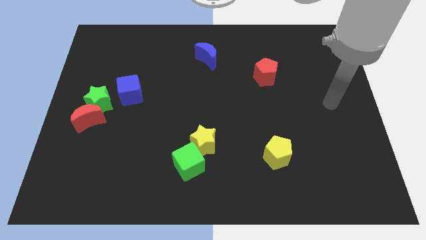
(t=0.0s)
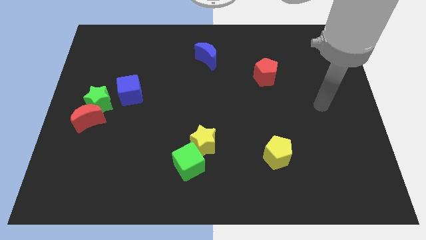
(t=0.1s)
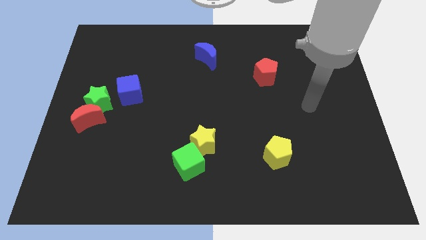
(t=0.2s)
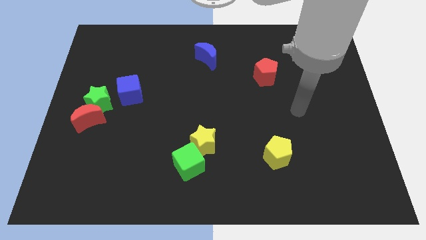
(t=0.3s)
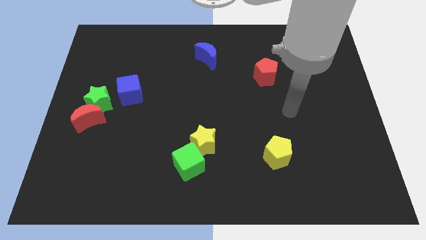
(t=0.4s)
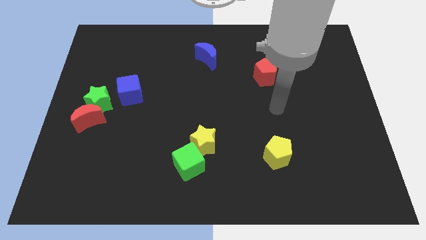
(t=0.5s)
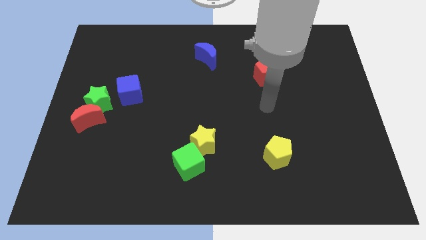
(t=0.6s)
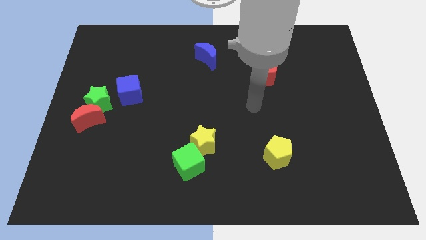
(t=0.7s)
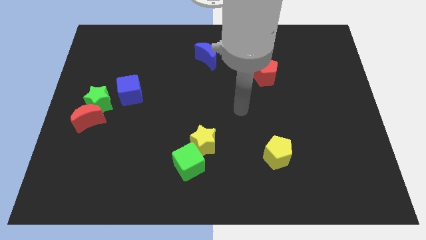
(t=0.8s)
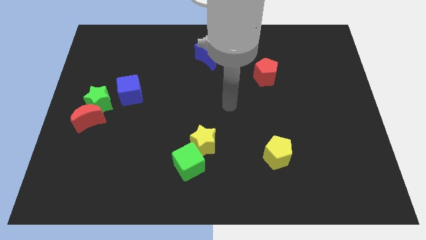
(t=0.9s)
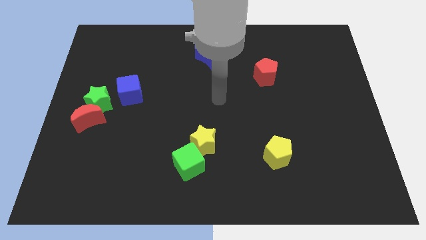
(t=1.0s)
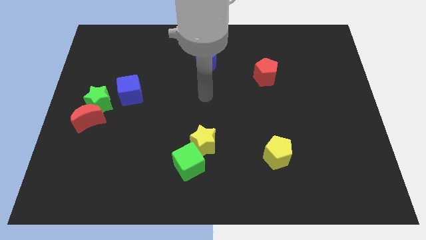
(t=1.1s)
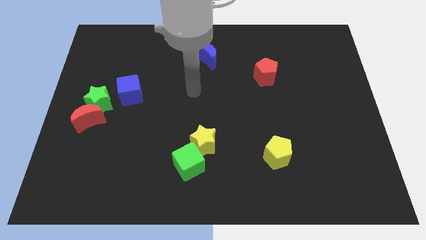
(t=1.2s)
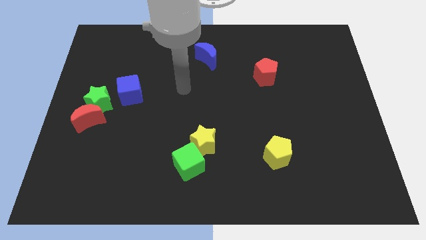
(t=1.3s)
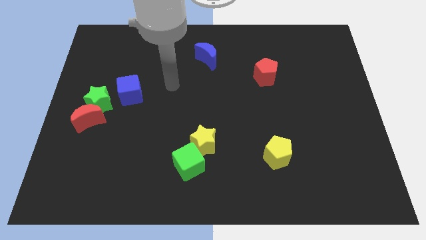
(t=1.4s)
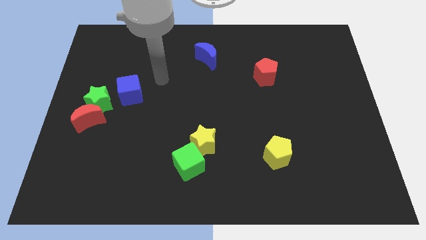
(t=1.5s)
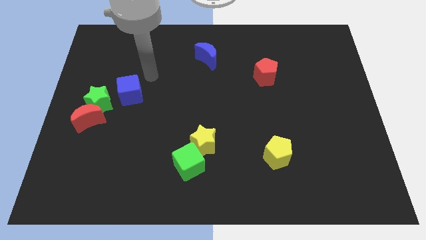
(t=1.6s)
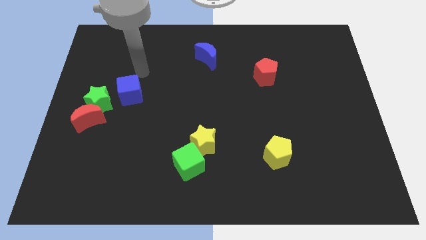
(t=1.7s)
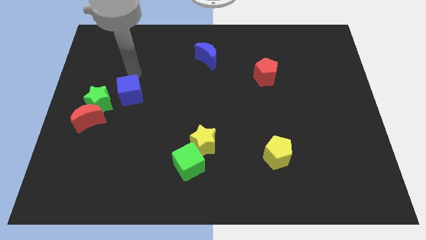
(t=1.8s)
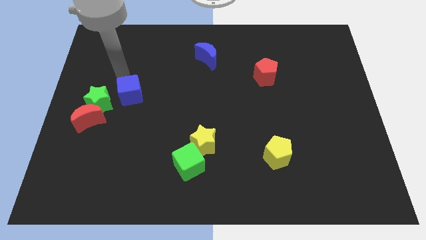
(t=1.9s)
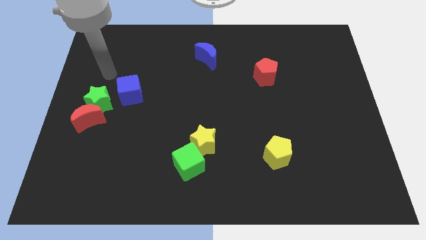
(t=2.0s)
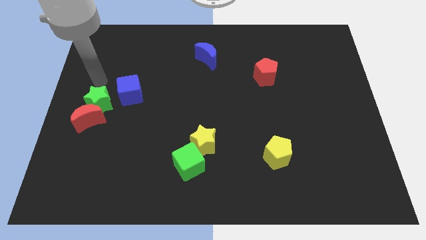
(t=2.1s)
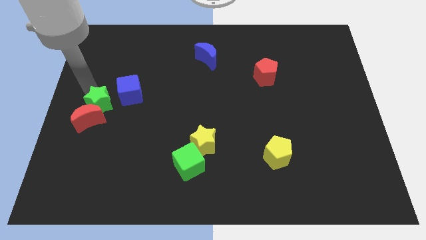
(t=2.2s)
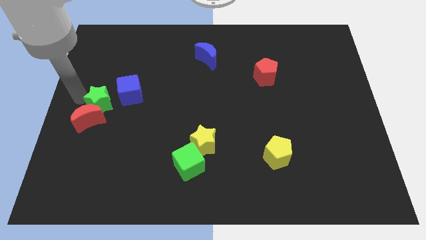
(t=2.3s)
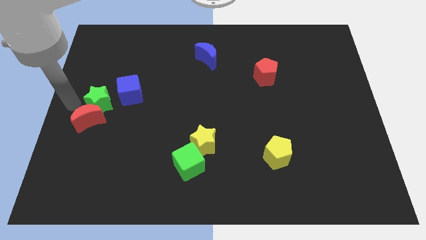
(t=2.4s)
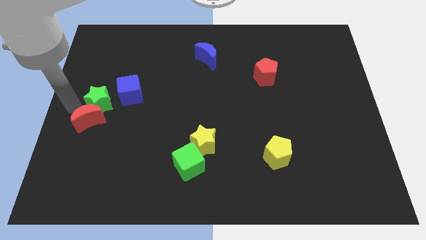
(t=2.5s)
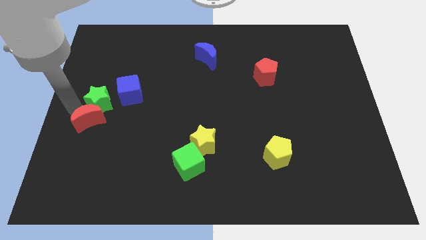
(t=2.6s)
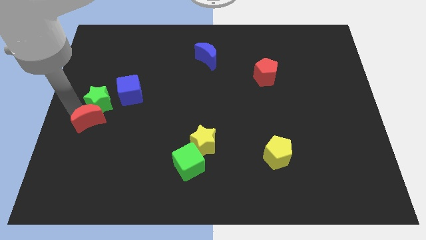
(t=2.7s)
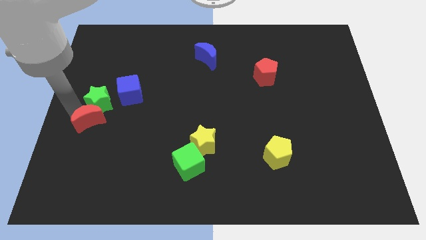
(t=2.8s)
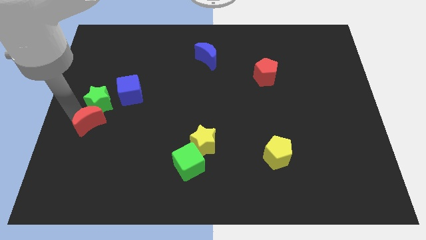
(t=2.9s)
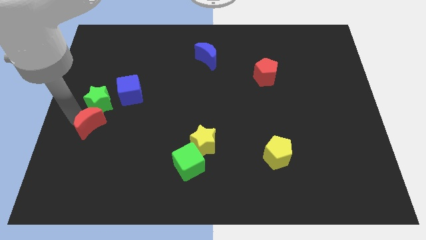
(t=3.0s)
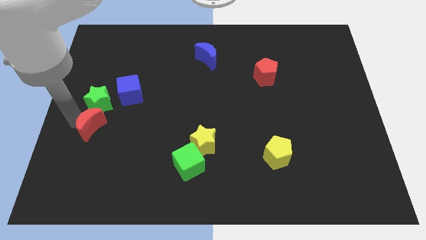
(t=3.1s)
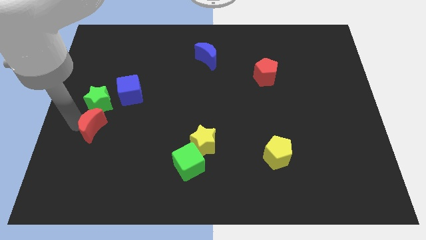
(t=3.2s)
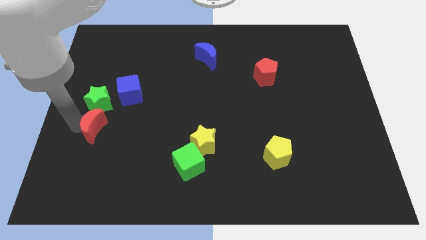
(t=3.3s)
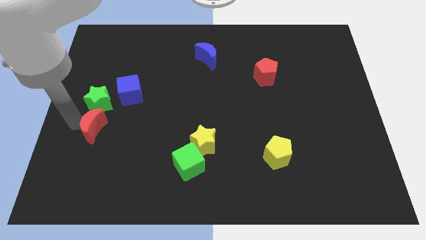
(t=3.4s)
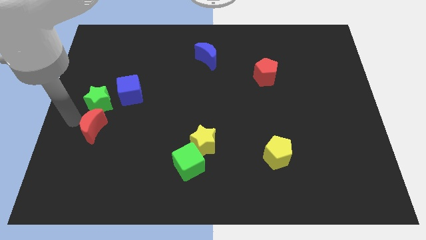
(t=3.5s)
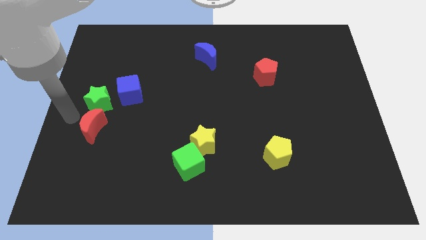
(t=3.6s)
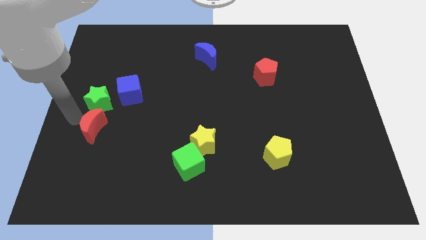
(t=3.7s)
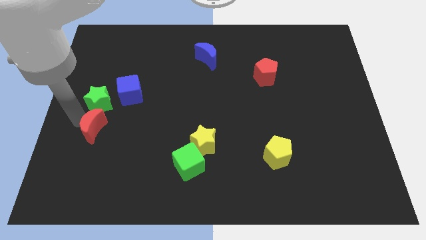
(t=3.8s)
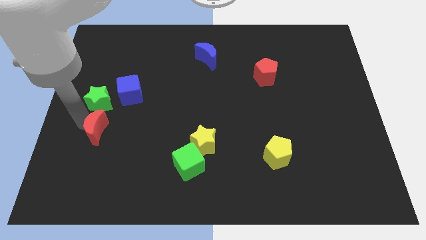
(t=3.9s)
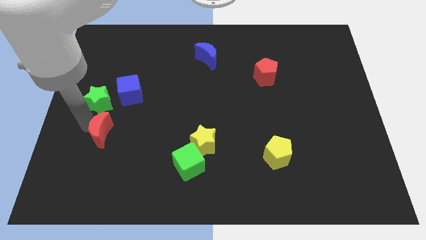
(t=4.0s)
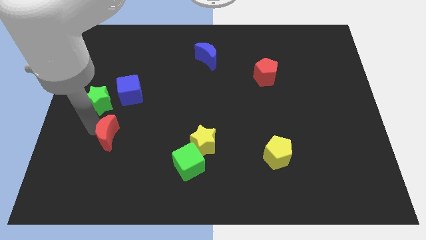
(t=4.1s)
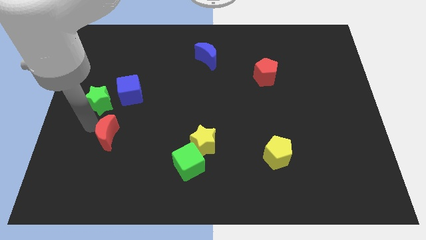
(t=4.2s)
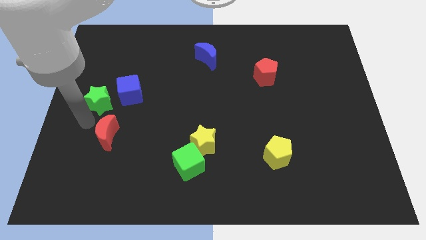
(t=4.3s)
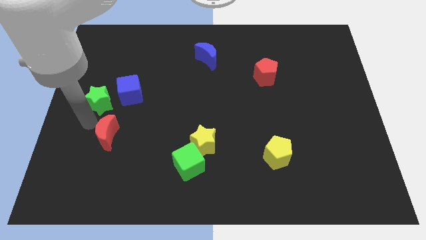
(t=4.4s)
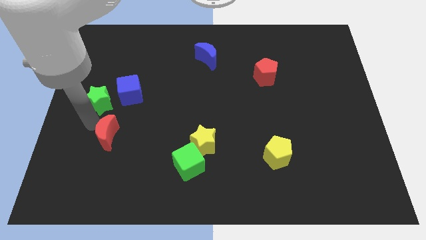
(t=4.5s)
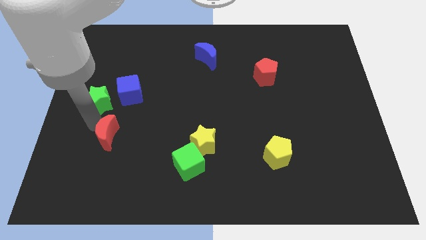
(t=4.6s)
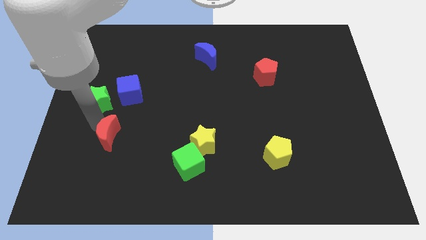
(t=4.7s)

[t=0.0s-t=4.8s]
move the red moon a little diagonally downwards and right

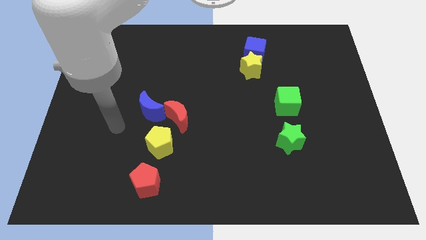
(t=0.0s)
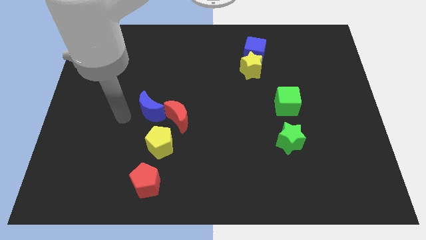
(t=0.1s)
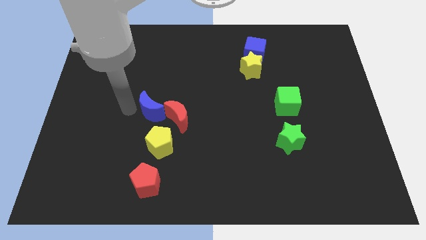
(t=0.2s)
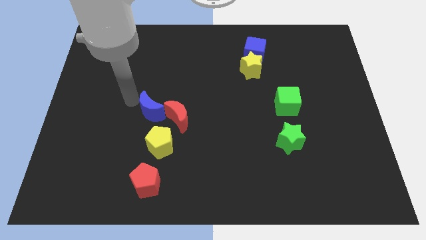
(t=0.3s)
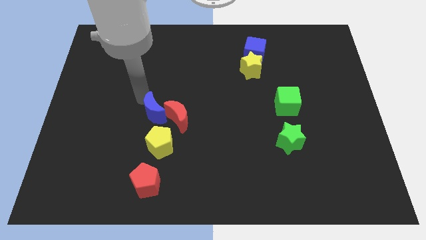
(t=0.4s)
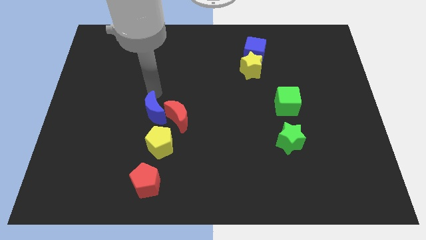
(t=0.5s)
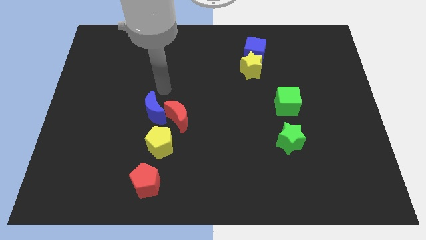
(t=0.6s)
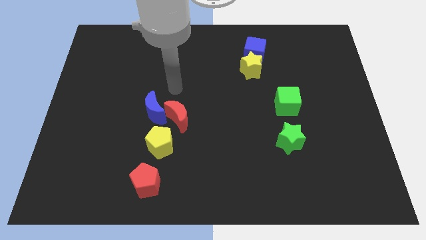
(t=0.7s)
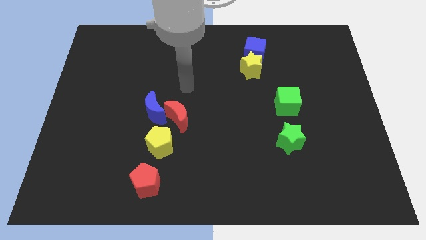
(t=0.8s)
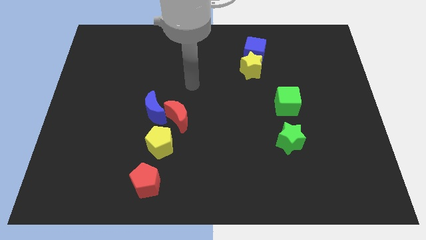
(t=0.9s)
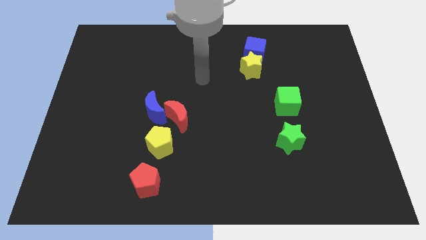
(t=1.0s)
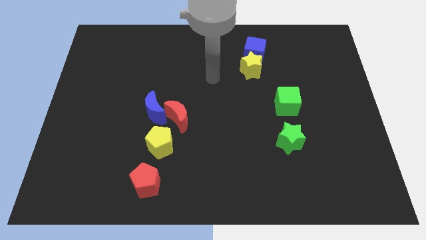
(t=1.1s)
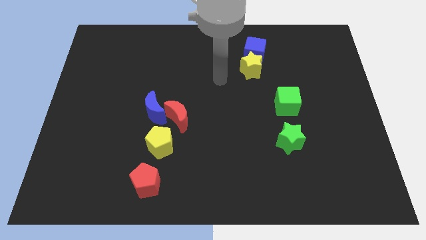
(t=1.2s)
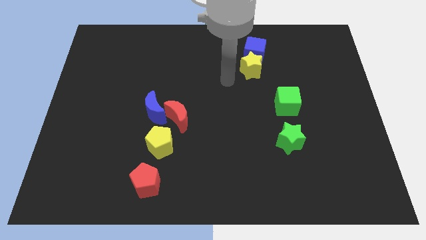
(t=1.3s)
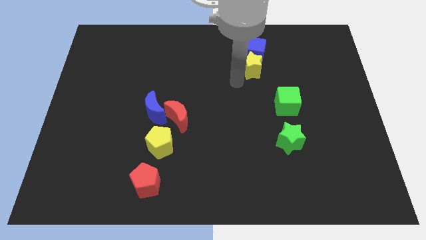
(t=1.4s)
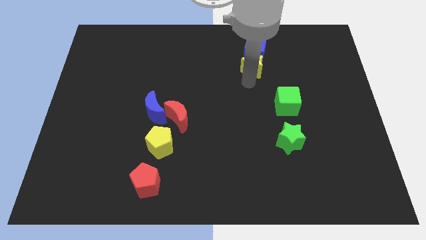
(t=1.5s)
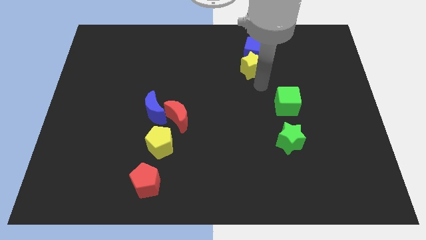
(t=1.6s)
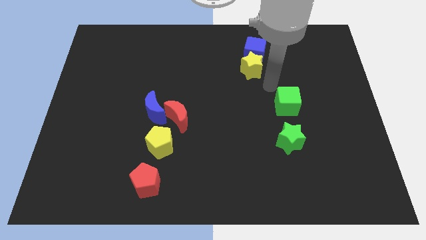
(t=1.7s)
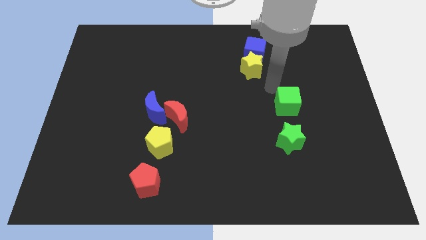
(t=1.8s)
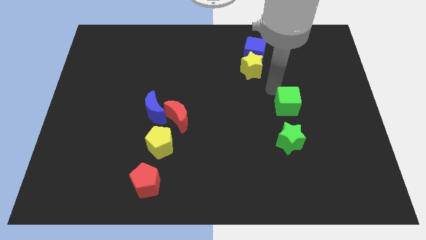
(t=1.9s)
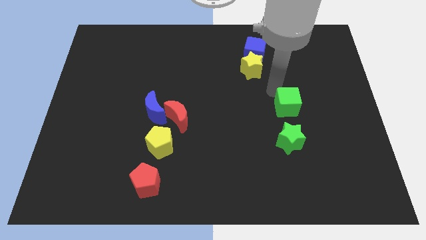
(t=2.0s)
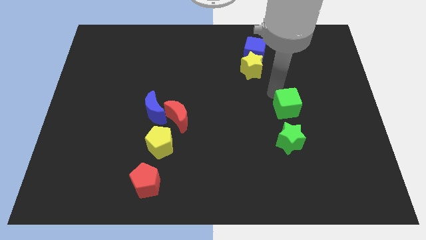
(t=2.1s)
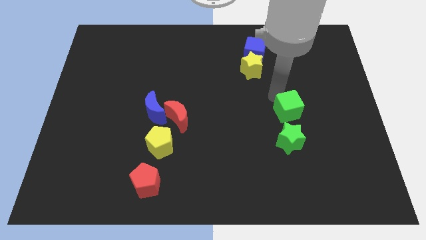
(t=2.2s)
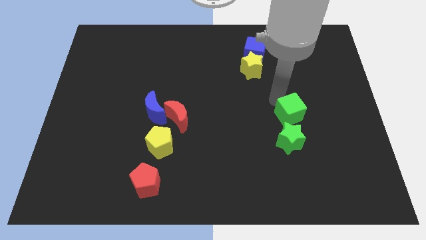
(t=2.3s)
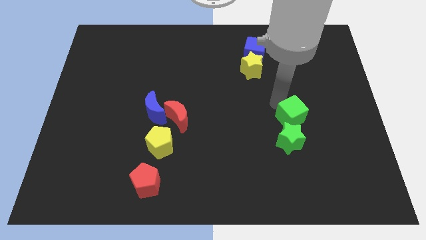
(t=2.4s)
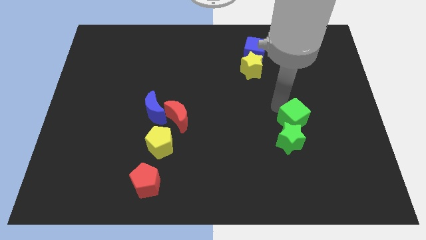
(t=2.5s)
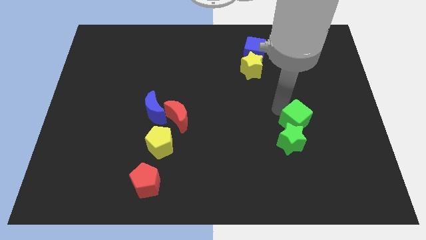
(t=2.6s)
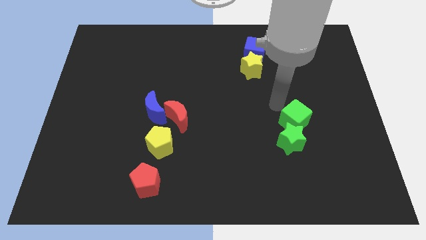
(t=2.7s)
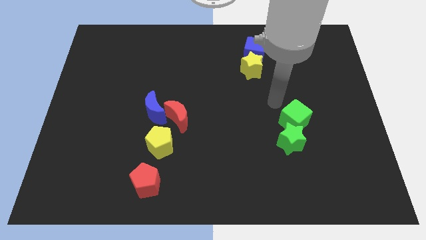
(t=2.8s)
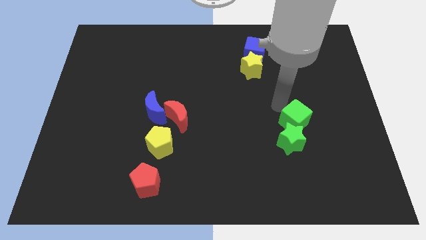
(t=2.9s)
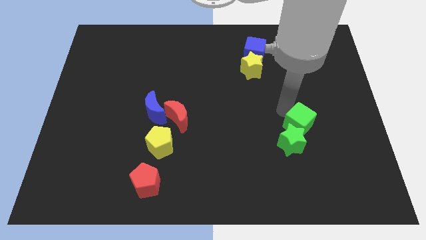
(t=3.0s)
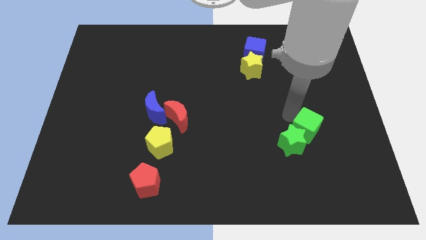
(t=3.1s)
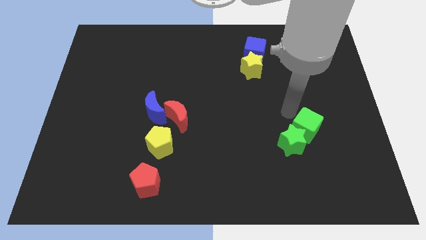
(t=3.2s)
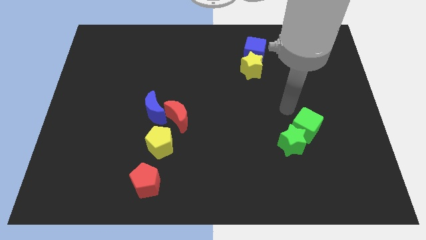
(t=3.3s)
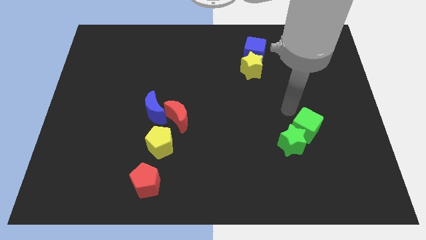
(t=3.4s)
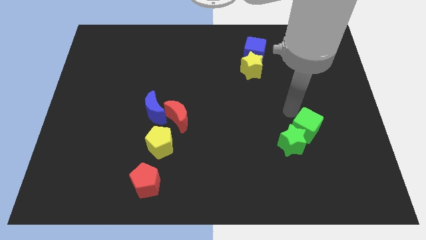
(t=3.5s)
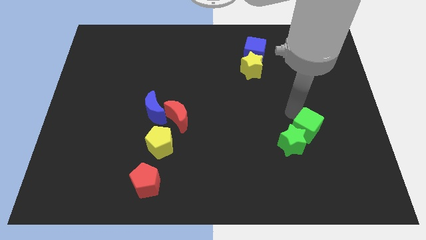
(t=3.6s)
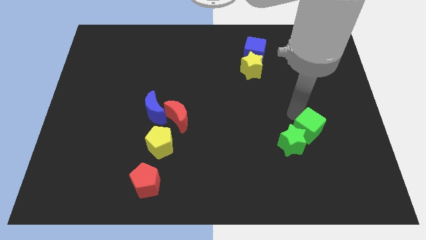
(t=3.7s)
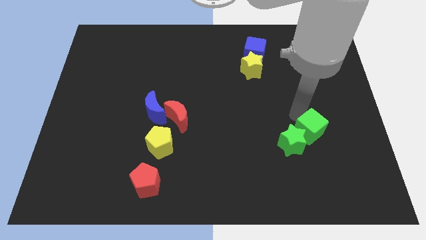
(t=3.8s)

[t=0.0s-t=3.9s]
slightly push the green cube down
